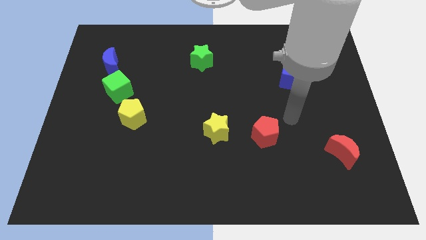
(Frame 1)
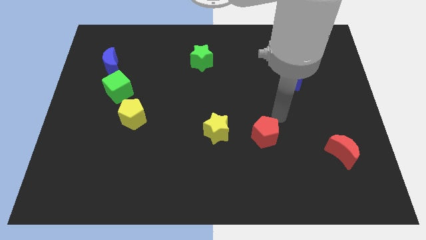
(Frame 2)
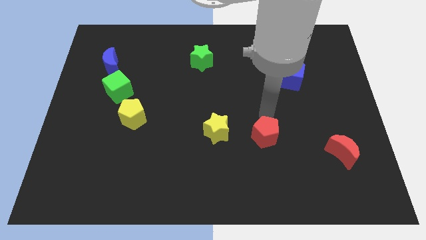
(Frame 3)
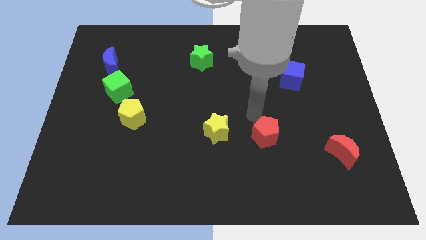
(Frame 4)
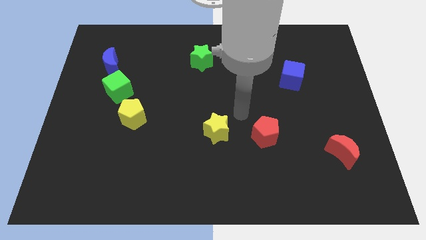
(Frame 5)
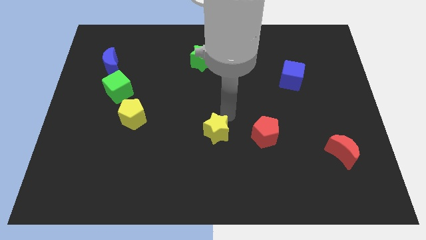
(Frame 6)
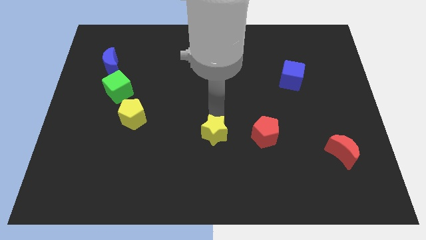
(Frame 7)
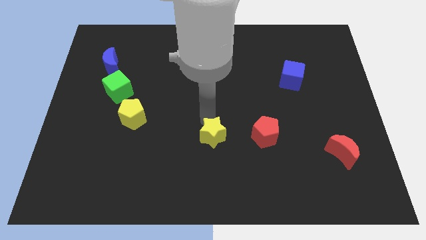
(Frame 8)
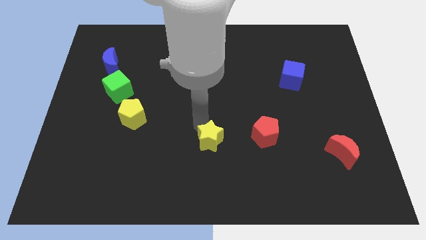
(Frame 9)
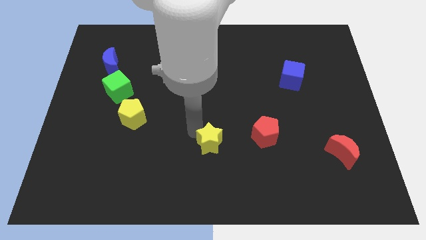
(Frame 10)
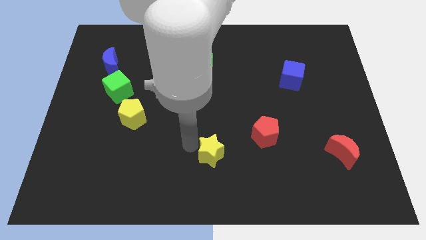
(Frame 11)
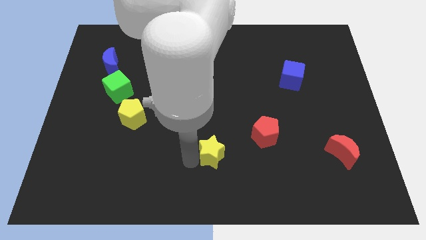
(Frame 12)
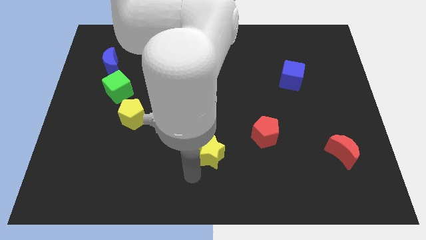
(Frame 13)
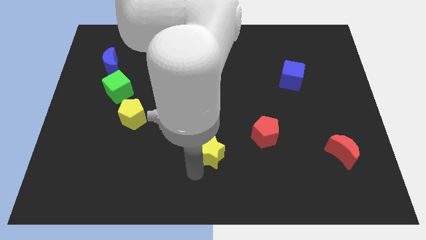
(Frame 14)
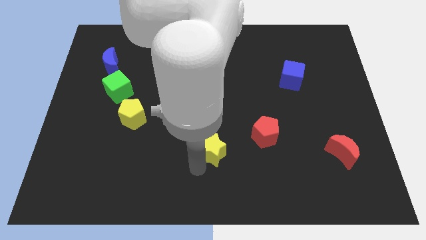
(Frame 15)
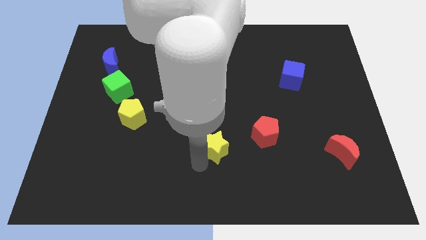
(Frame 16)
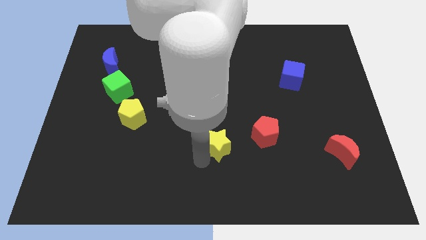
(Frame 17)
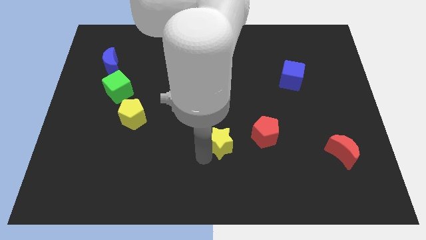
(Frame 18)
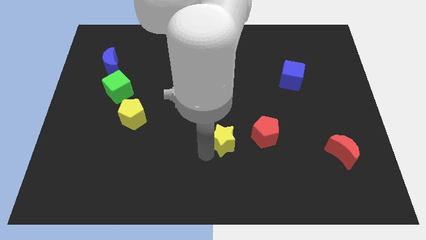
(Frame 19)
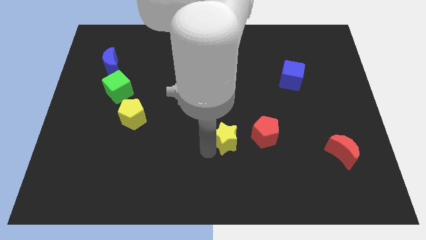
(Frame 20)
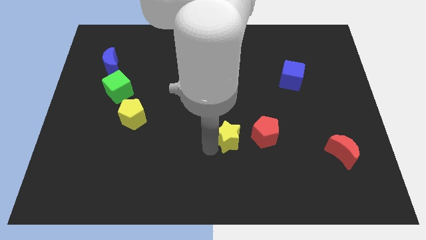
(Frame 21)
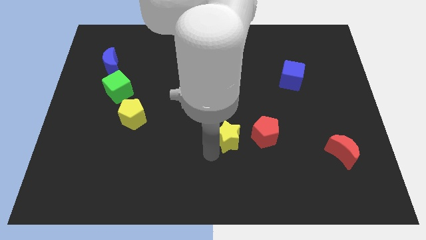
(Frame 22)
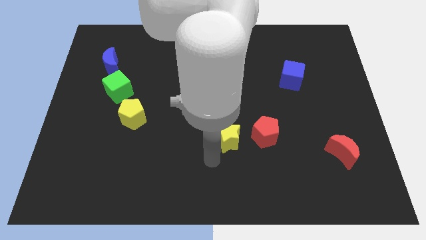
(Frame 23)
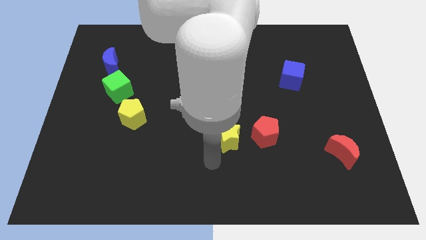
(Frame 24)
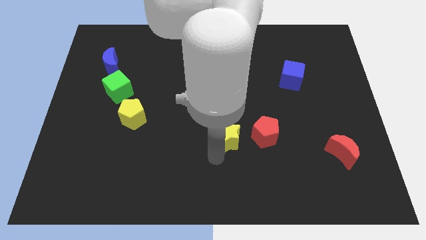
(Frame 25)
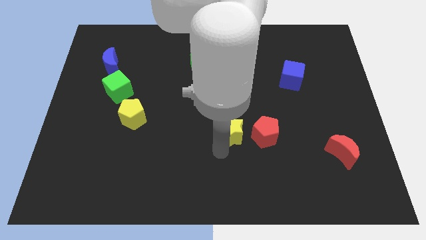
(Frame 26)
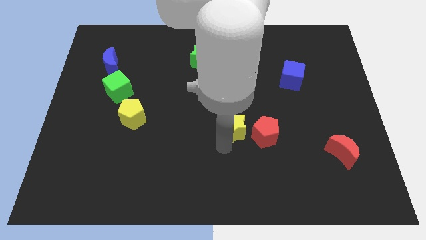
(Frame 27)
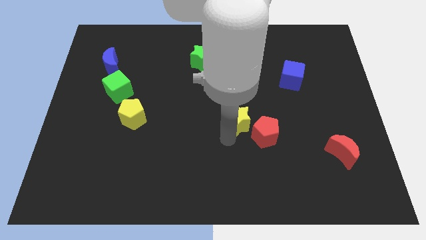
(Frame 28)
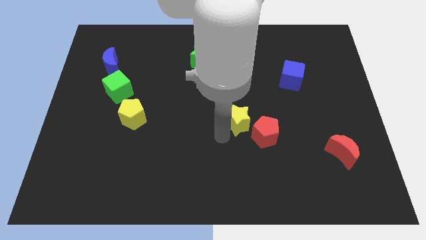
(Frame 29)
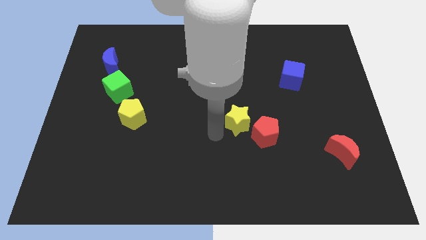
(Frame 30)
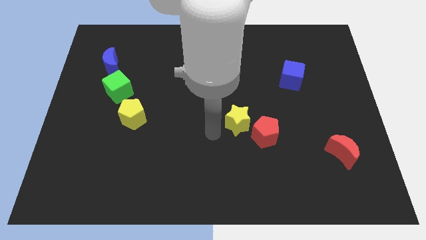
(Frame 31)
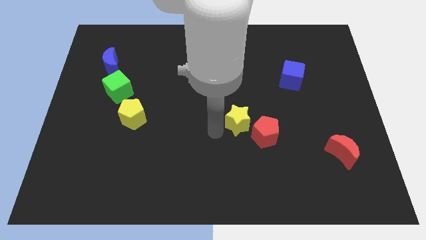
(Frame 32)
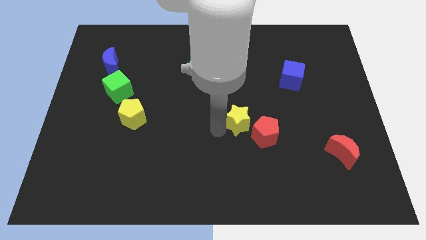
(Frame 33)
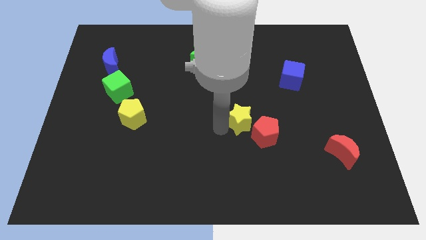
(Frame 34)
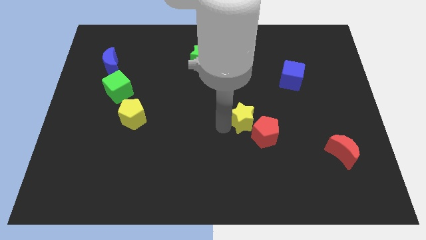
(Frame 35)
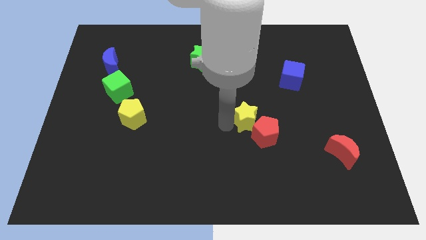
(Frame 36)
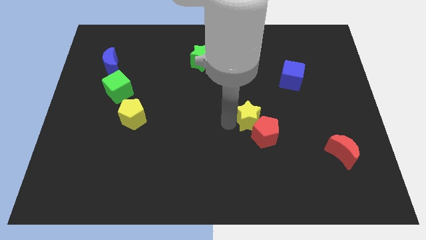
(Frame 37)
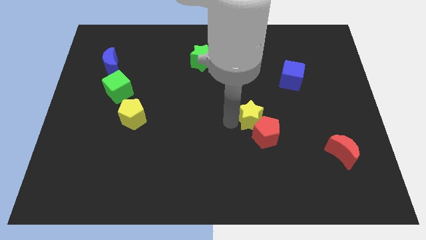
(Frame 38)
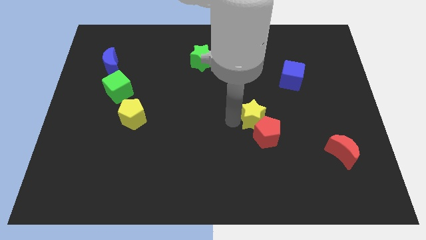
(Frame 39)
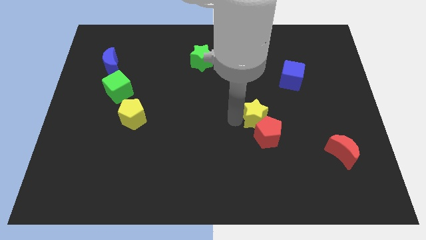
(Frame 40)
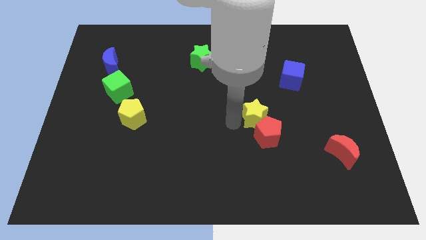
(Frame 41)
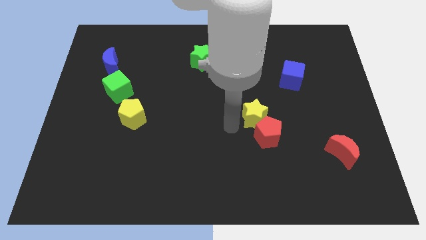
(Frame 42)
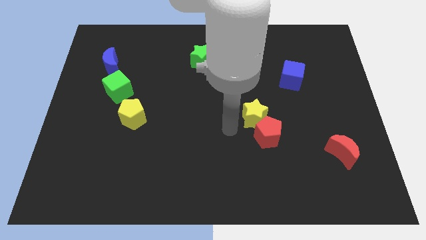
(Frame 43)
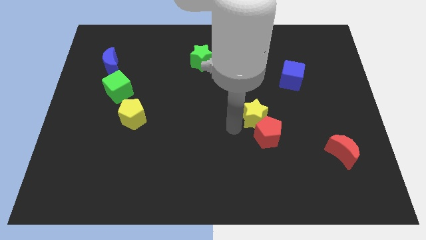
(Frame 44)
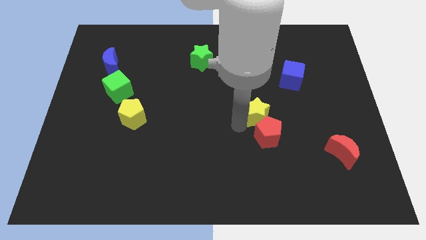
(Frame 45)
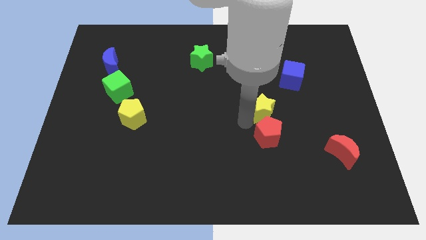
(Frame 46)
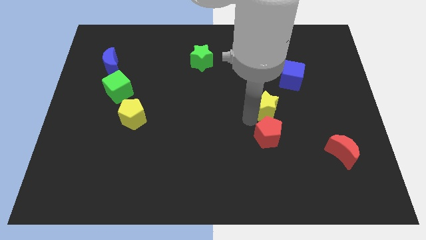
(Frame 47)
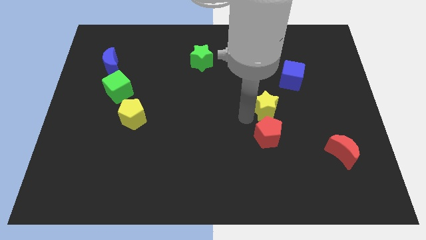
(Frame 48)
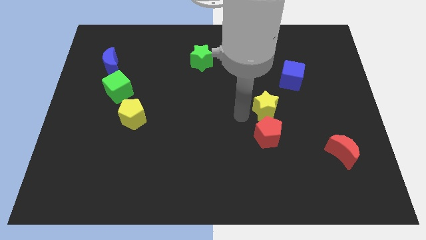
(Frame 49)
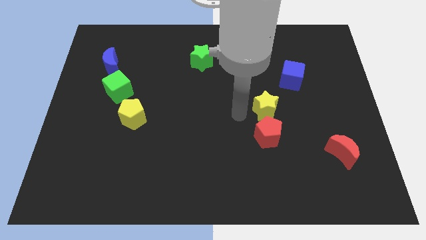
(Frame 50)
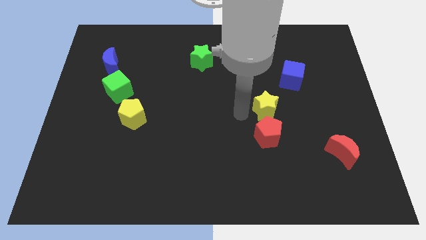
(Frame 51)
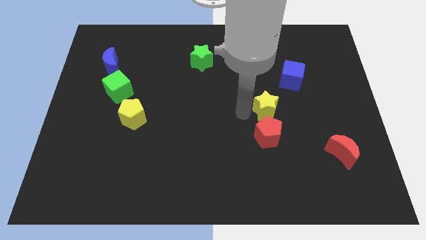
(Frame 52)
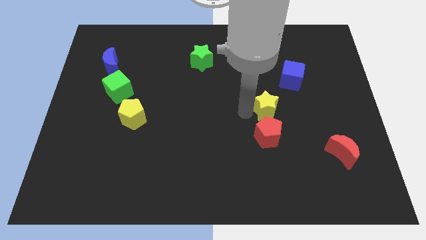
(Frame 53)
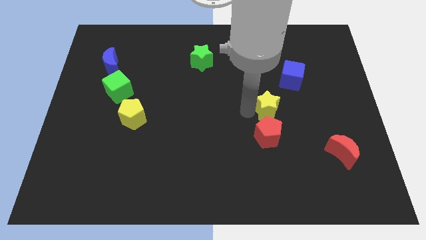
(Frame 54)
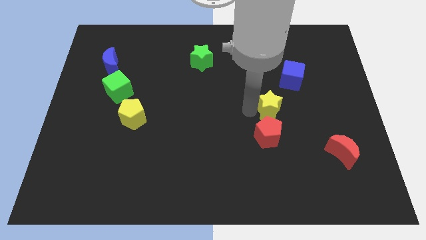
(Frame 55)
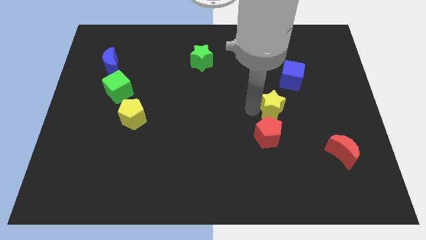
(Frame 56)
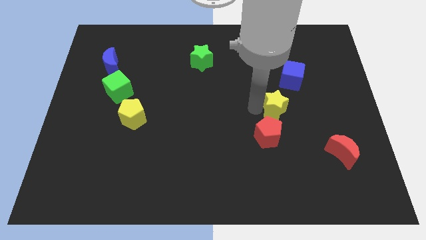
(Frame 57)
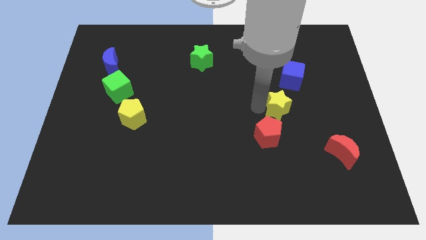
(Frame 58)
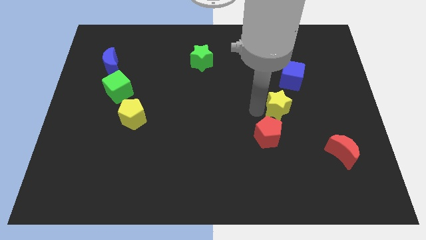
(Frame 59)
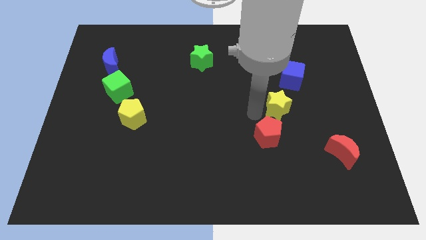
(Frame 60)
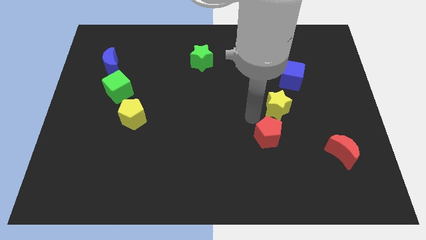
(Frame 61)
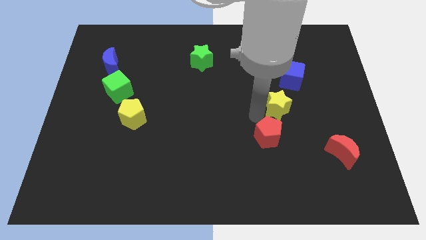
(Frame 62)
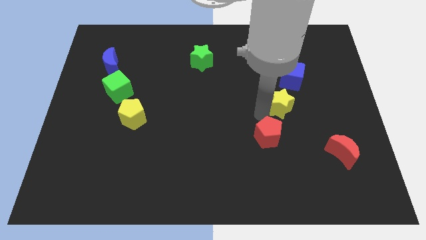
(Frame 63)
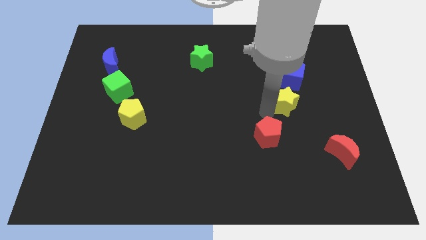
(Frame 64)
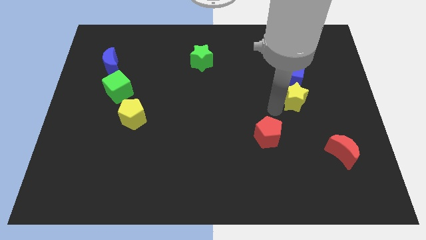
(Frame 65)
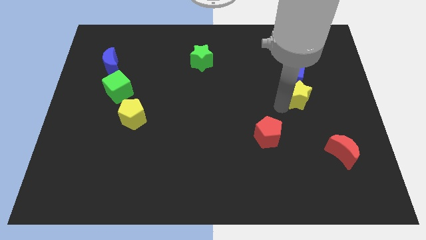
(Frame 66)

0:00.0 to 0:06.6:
push the yellow star to the bottom right of the blue cube
